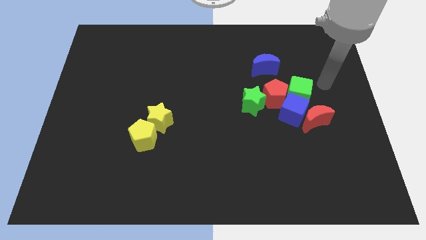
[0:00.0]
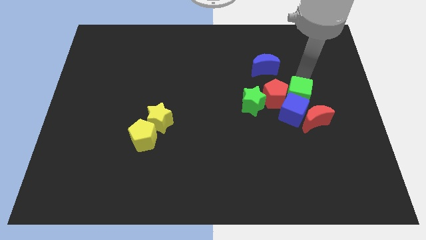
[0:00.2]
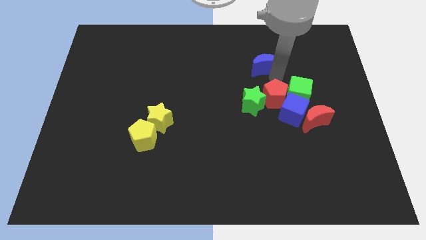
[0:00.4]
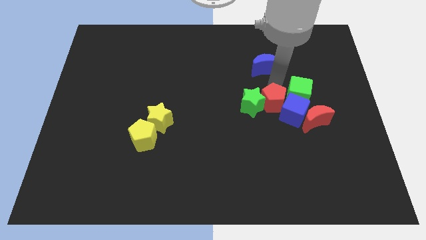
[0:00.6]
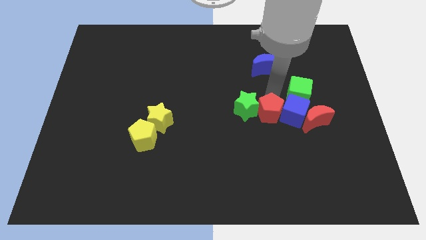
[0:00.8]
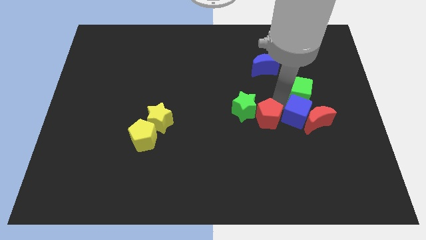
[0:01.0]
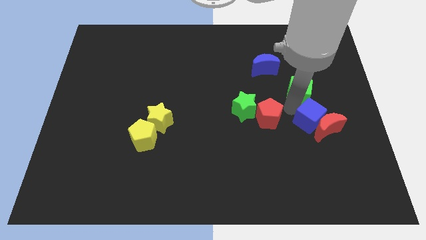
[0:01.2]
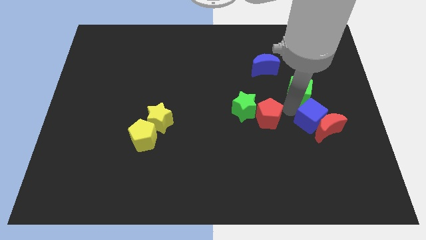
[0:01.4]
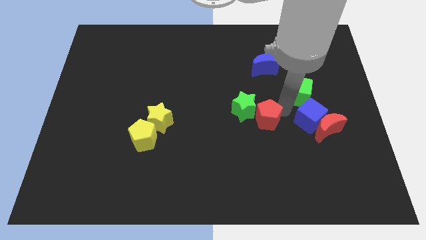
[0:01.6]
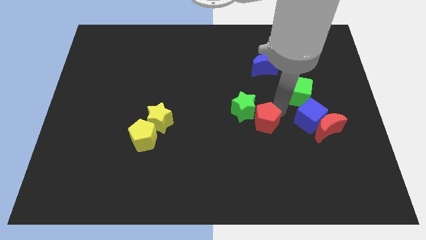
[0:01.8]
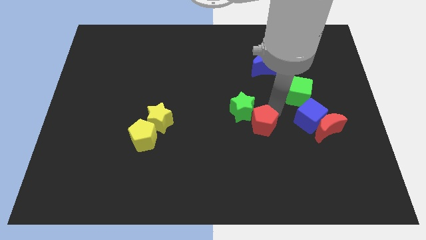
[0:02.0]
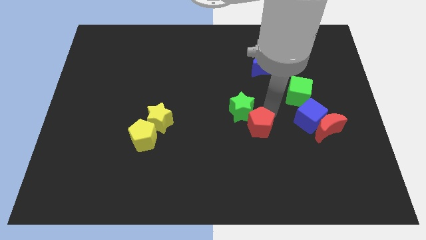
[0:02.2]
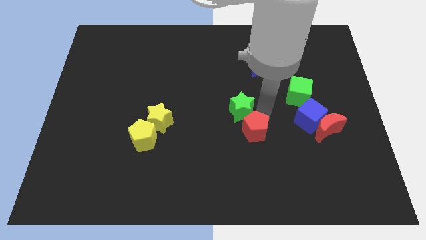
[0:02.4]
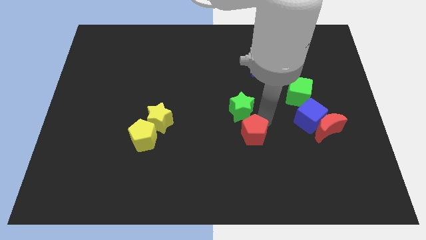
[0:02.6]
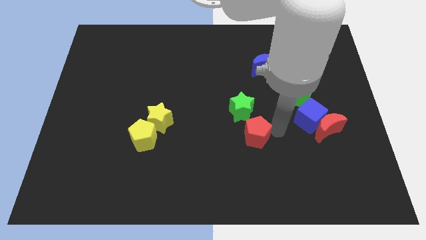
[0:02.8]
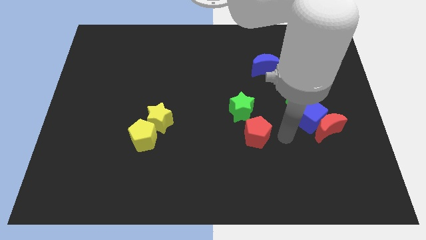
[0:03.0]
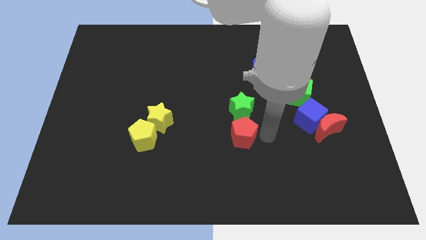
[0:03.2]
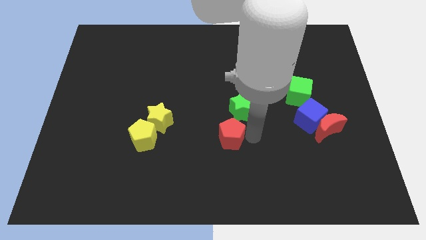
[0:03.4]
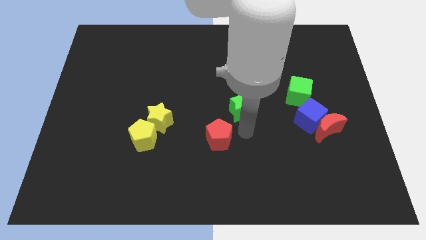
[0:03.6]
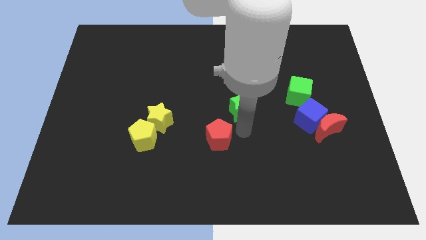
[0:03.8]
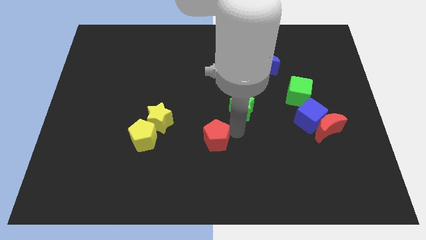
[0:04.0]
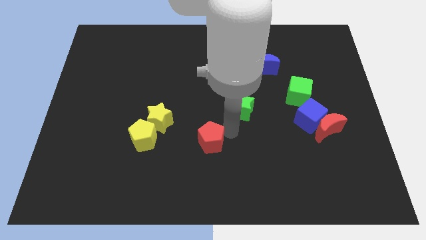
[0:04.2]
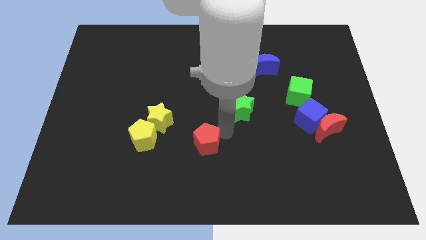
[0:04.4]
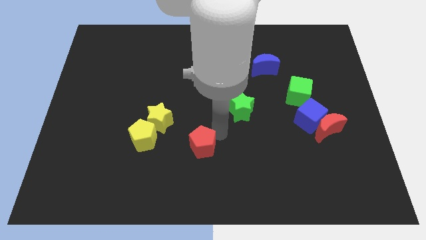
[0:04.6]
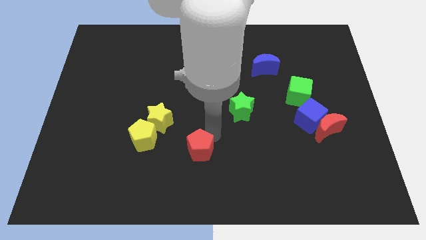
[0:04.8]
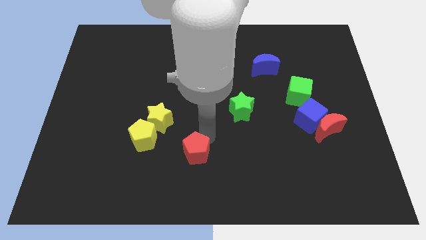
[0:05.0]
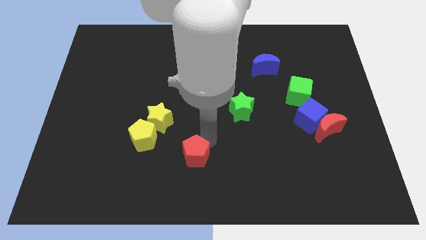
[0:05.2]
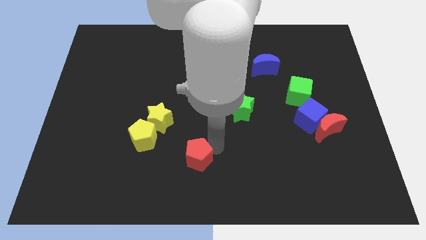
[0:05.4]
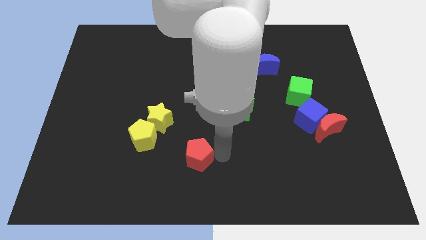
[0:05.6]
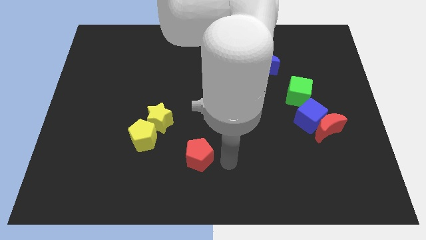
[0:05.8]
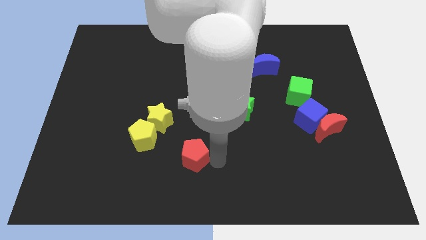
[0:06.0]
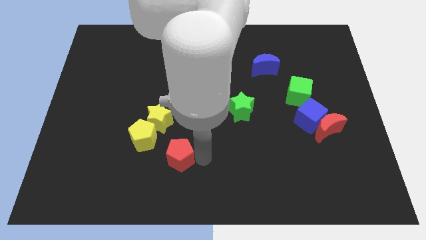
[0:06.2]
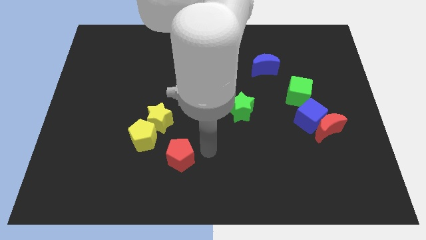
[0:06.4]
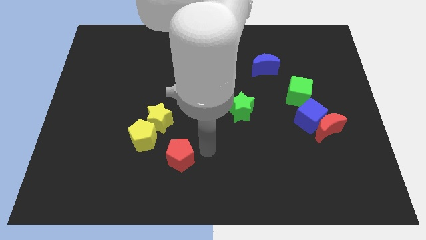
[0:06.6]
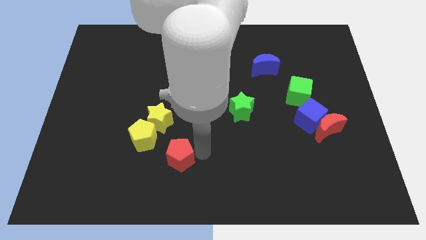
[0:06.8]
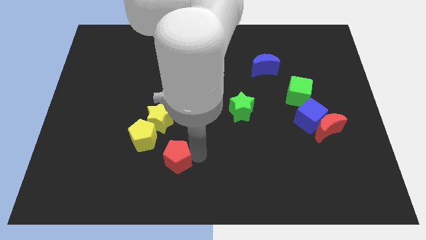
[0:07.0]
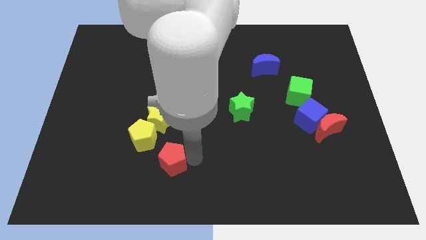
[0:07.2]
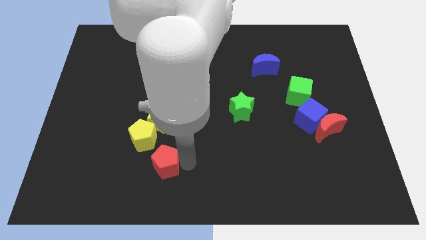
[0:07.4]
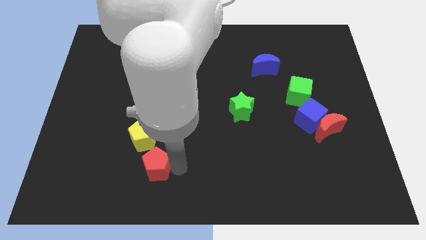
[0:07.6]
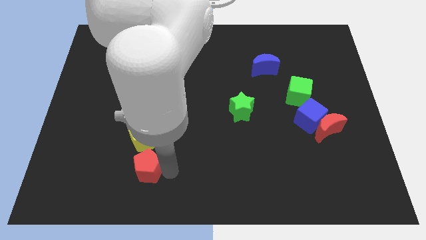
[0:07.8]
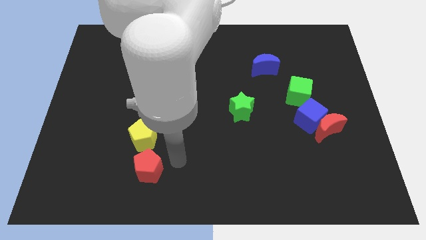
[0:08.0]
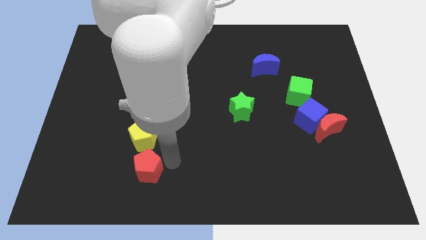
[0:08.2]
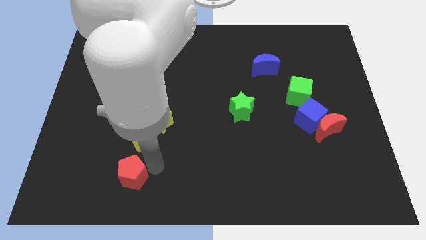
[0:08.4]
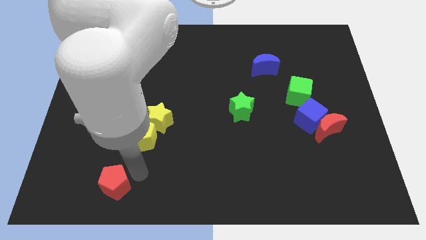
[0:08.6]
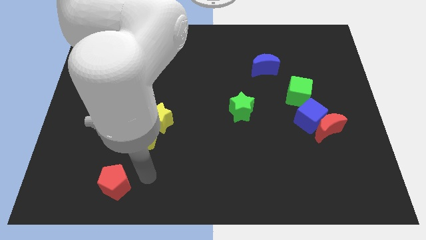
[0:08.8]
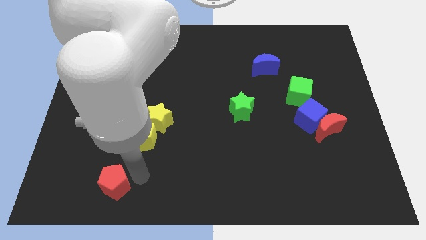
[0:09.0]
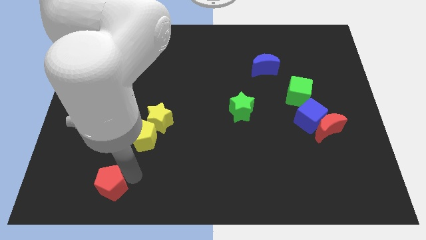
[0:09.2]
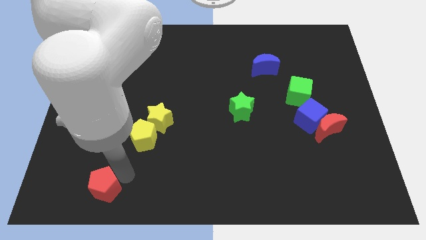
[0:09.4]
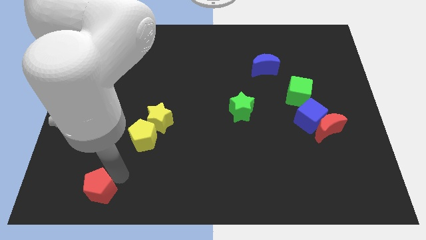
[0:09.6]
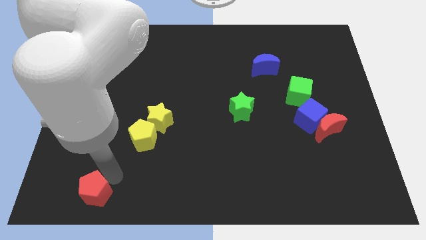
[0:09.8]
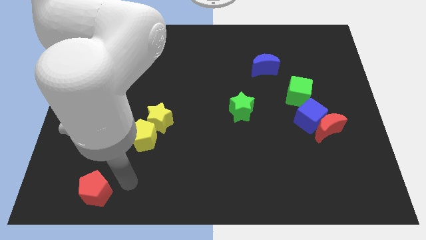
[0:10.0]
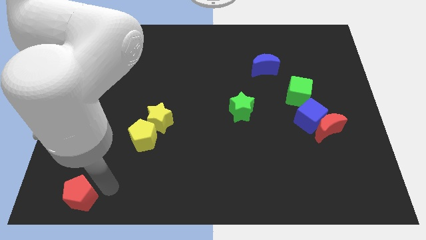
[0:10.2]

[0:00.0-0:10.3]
push the red pentagon to the bottom left

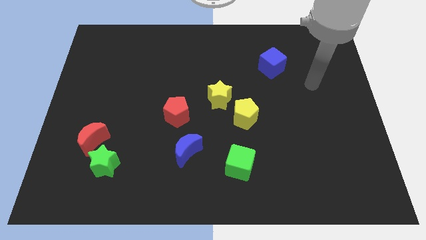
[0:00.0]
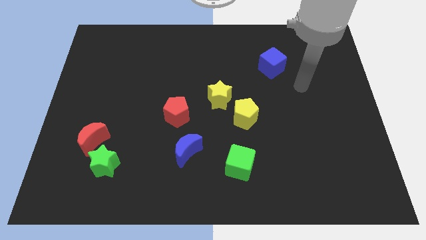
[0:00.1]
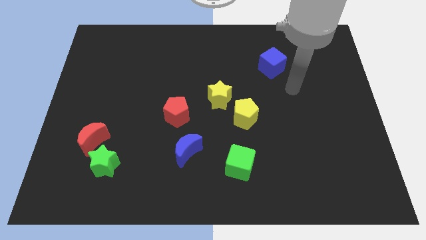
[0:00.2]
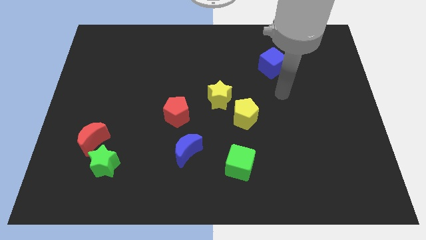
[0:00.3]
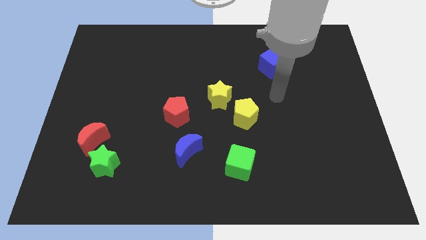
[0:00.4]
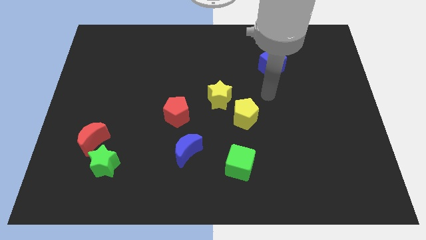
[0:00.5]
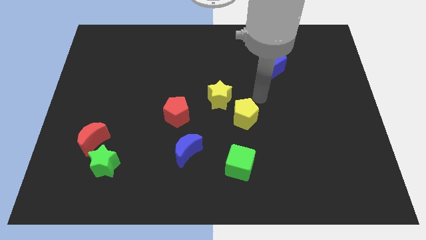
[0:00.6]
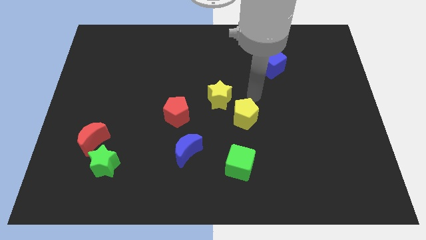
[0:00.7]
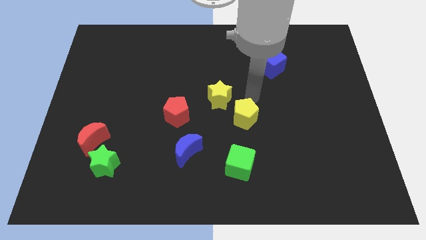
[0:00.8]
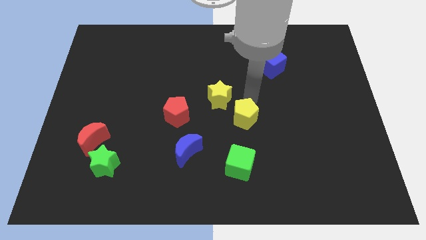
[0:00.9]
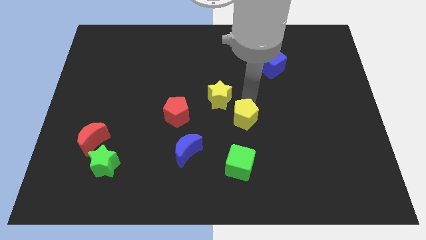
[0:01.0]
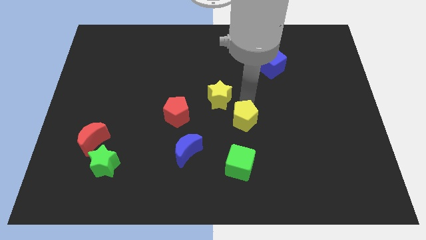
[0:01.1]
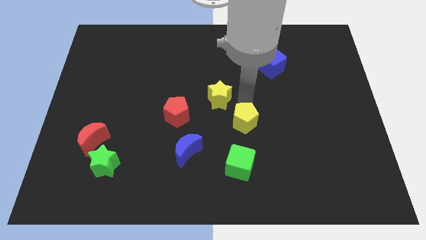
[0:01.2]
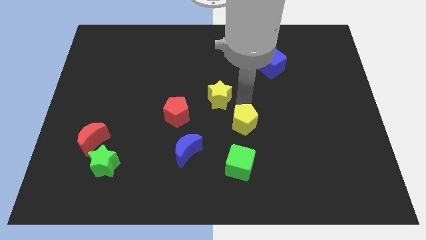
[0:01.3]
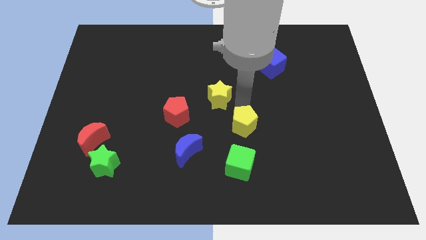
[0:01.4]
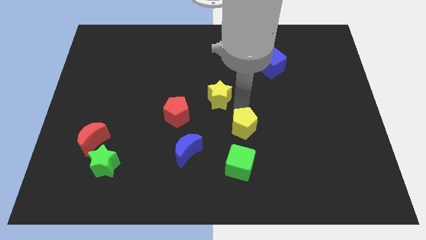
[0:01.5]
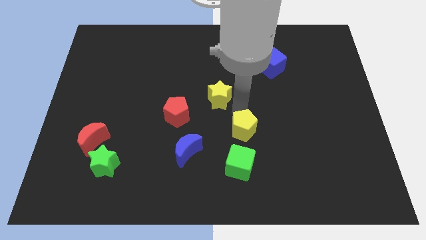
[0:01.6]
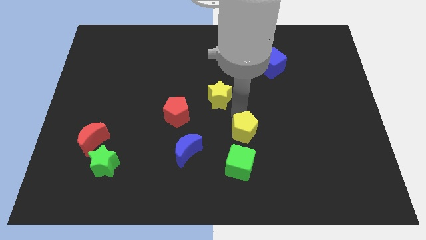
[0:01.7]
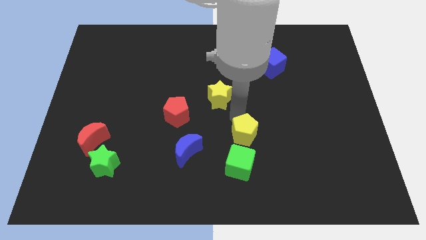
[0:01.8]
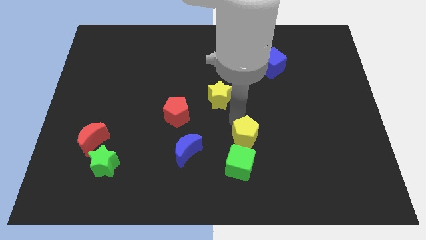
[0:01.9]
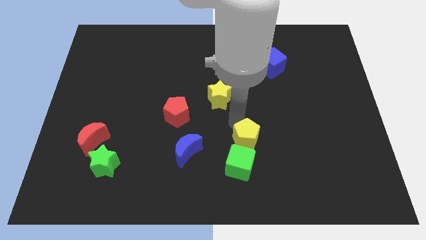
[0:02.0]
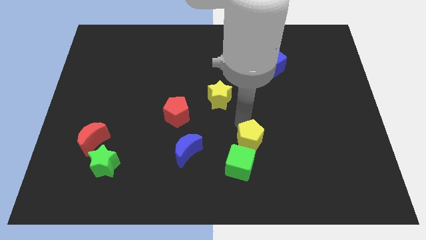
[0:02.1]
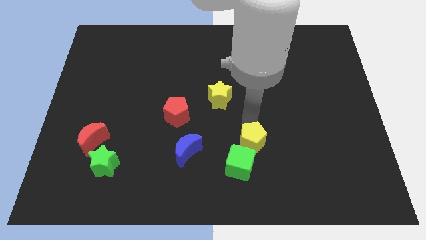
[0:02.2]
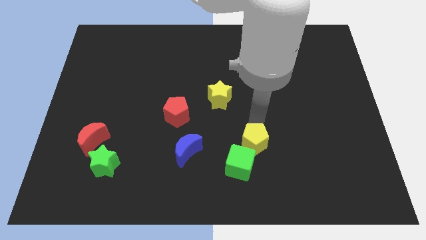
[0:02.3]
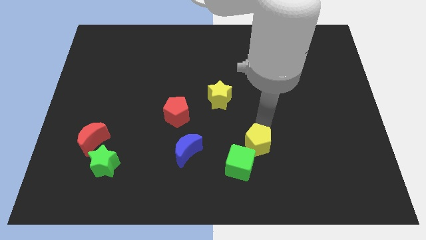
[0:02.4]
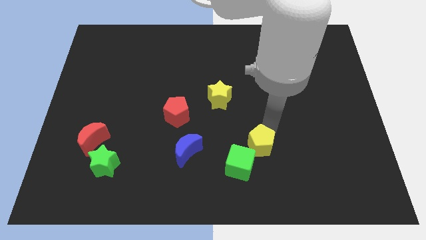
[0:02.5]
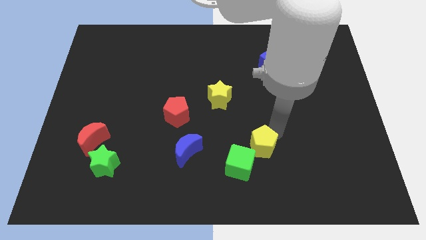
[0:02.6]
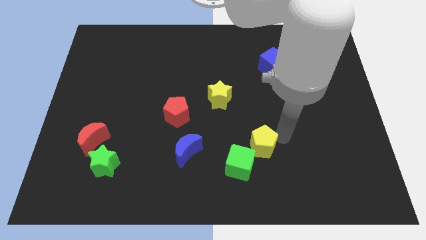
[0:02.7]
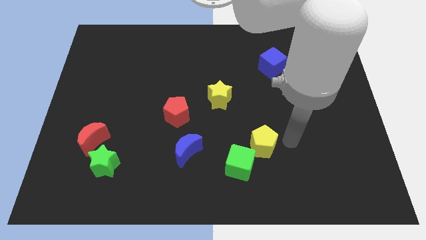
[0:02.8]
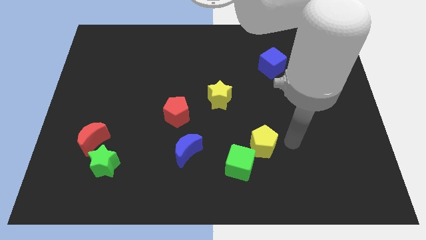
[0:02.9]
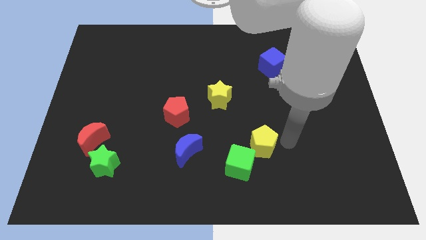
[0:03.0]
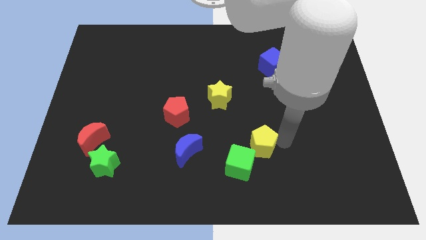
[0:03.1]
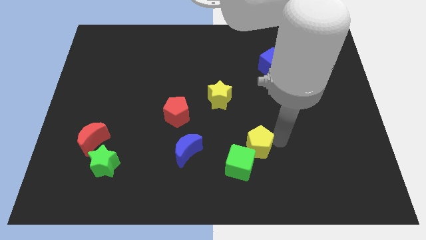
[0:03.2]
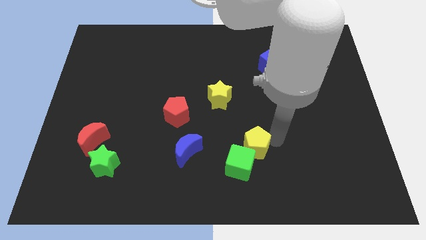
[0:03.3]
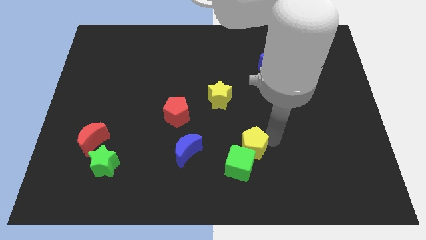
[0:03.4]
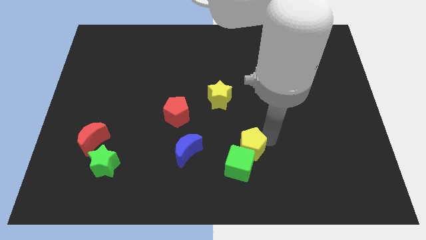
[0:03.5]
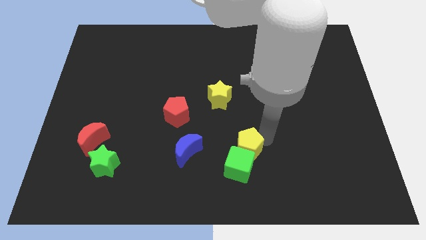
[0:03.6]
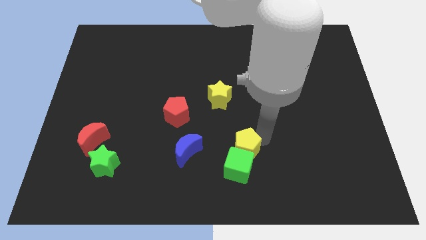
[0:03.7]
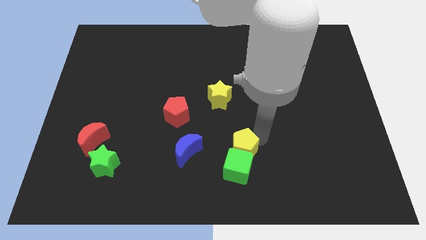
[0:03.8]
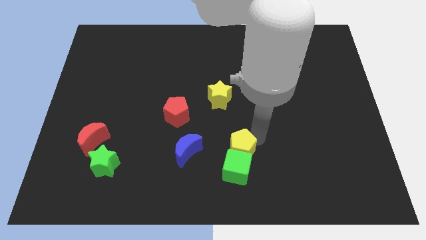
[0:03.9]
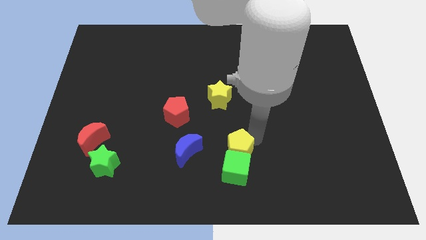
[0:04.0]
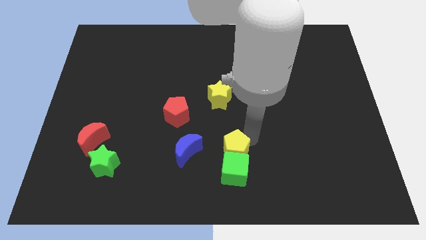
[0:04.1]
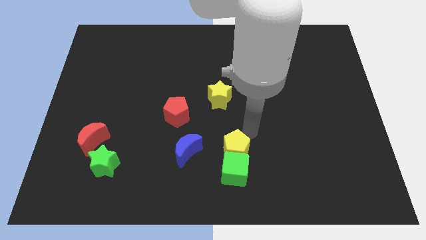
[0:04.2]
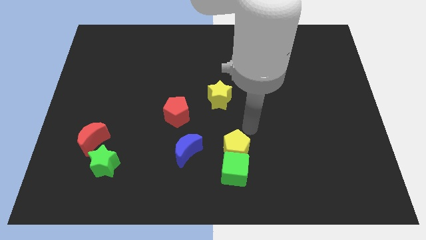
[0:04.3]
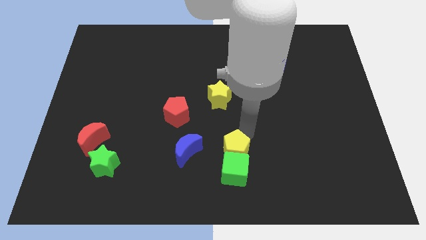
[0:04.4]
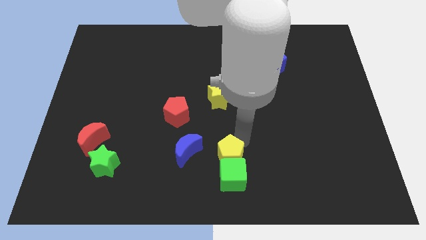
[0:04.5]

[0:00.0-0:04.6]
put the yellow pentagon to the bottom
